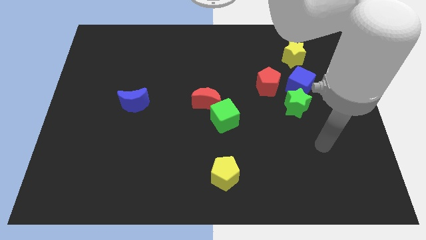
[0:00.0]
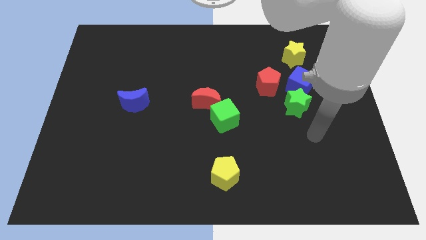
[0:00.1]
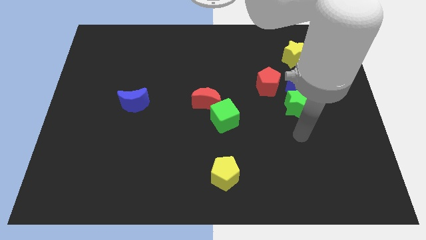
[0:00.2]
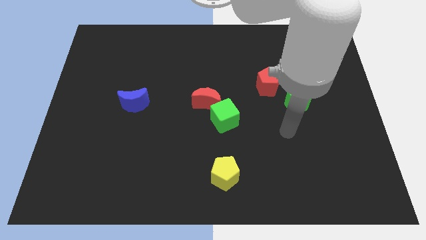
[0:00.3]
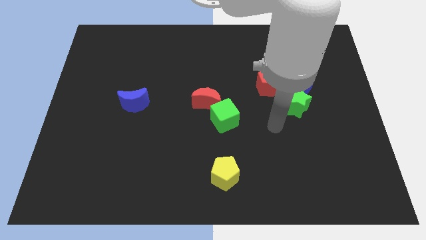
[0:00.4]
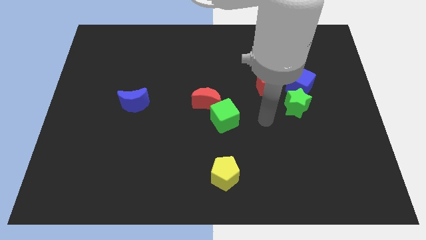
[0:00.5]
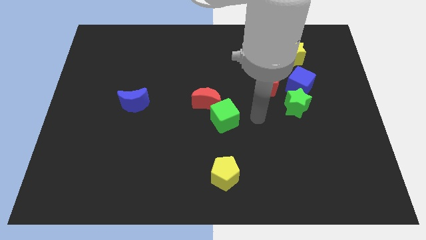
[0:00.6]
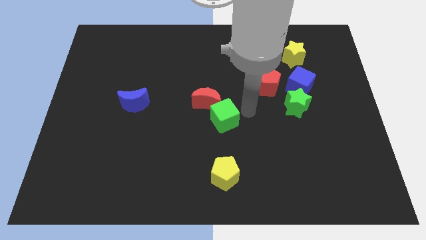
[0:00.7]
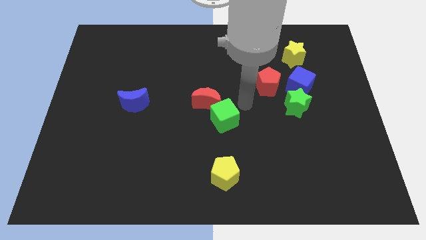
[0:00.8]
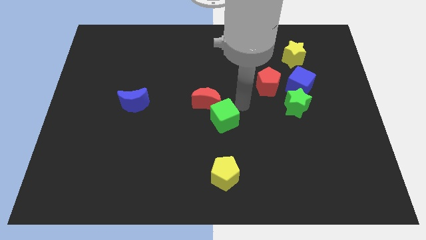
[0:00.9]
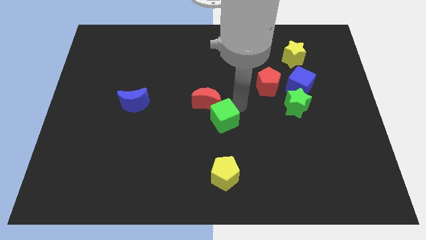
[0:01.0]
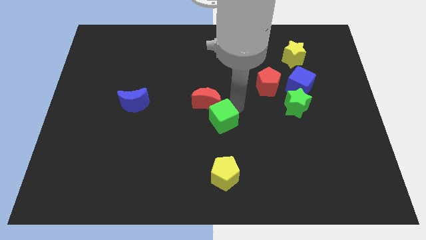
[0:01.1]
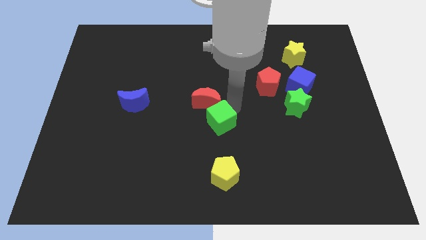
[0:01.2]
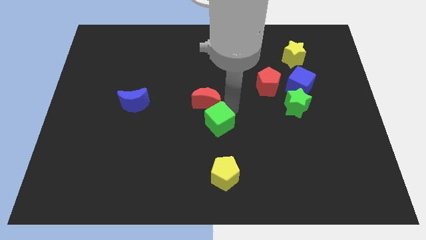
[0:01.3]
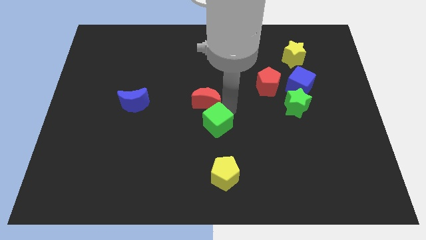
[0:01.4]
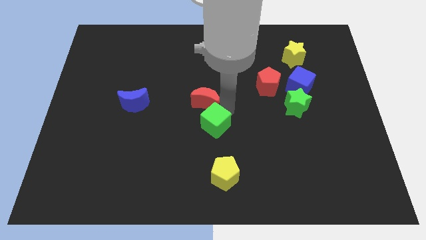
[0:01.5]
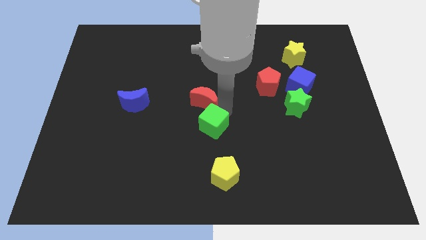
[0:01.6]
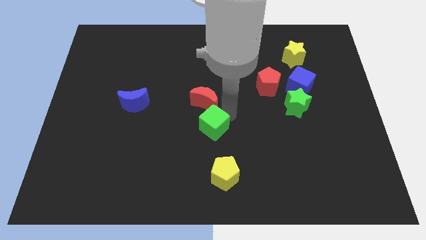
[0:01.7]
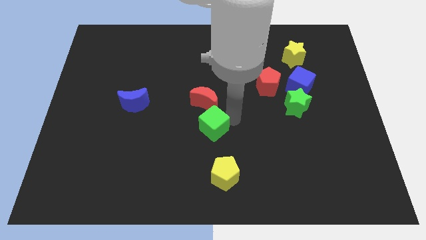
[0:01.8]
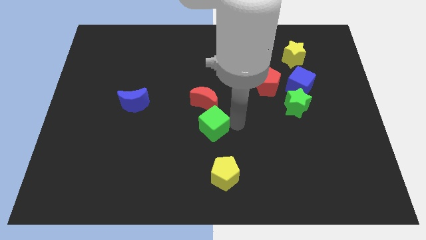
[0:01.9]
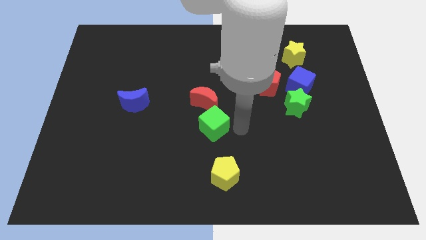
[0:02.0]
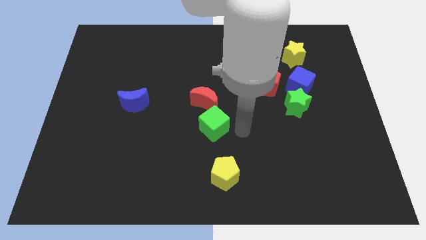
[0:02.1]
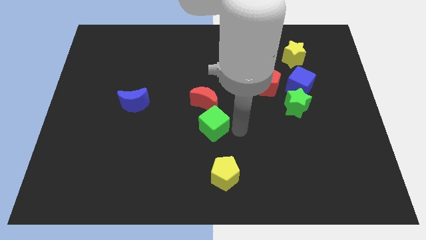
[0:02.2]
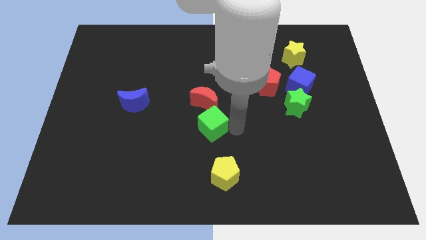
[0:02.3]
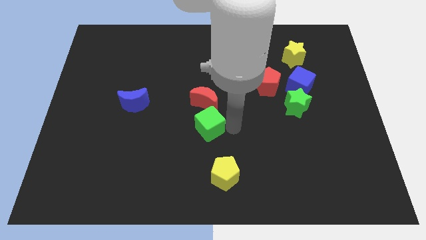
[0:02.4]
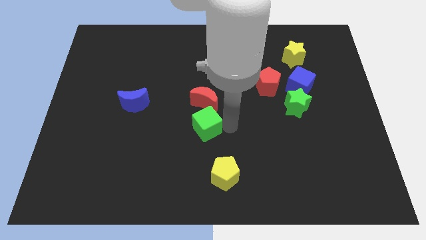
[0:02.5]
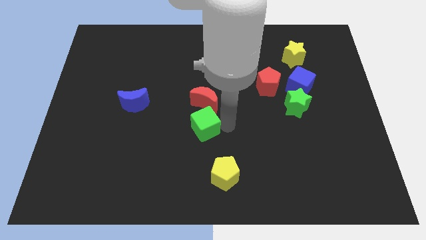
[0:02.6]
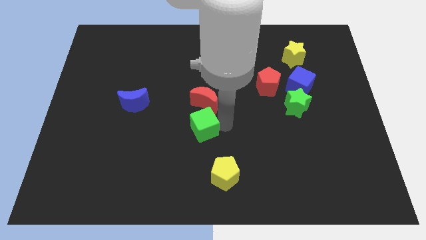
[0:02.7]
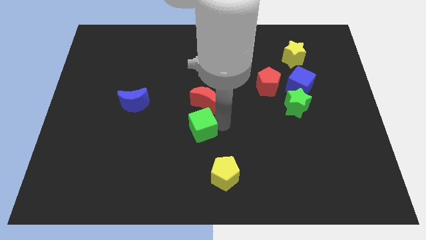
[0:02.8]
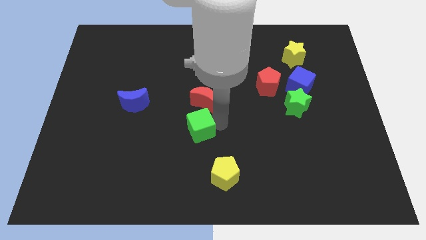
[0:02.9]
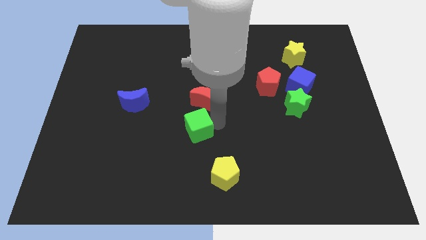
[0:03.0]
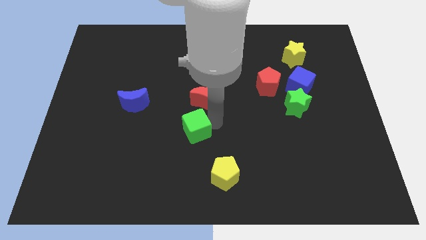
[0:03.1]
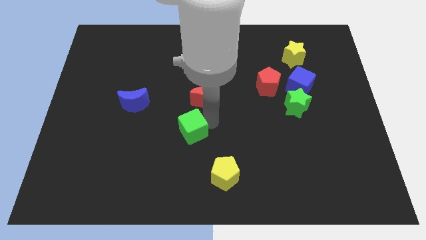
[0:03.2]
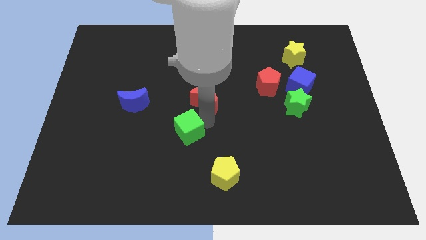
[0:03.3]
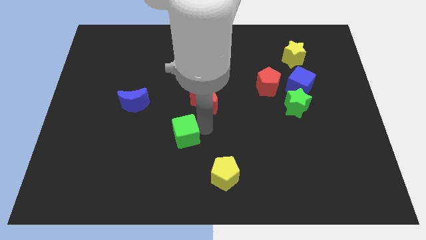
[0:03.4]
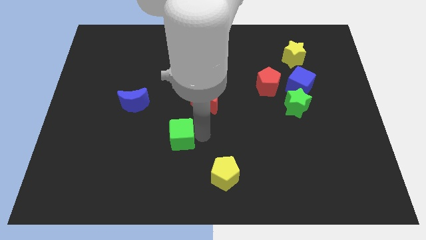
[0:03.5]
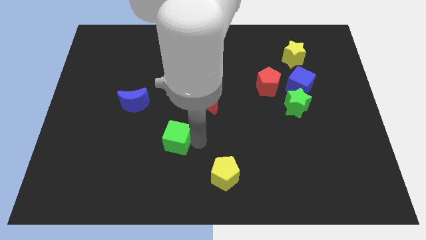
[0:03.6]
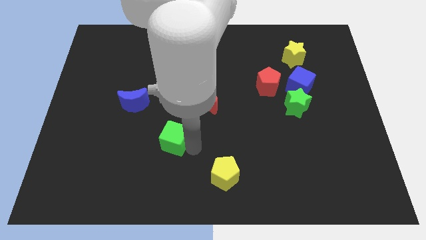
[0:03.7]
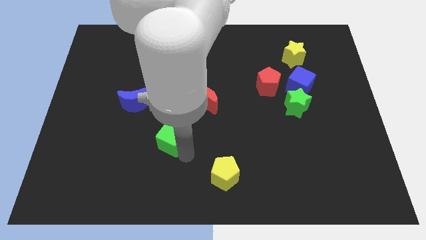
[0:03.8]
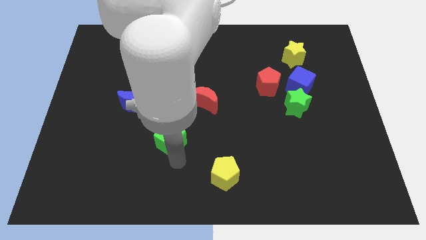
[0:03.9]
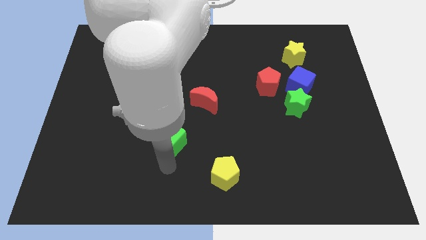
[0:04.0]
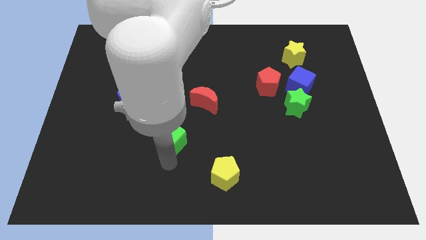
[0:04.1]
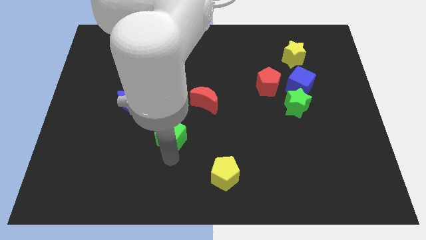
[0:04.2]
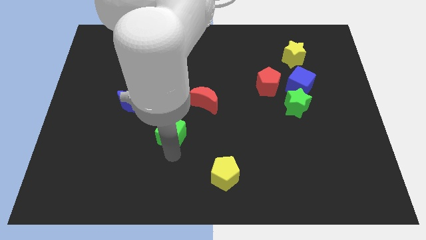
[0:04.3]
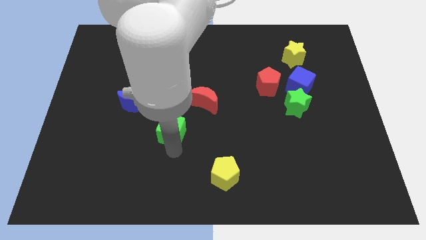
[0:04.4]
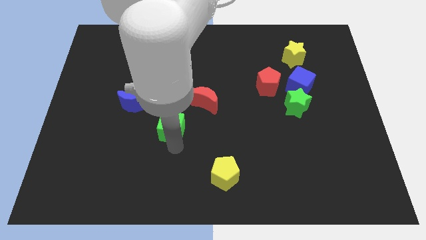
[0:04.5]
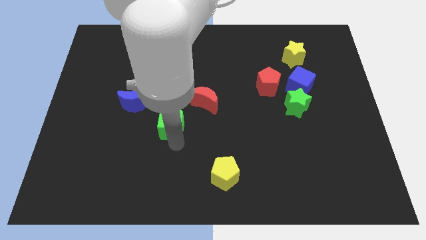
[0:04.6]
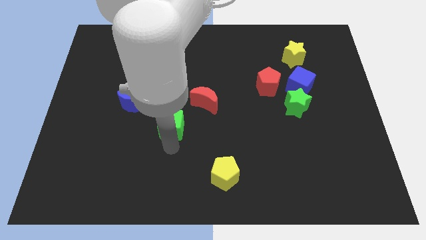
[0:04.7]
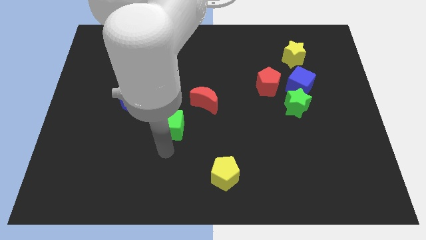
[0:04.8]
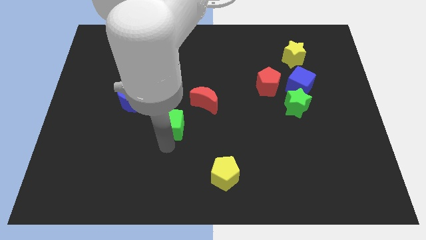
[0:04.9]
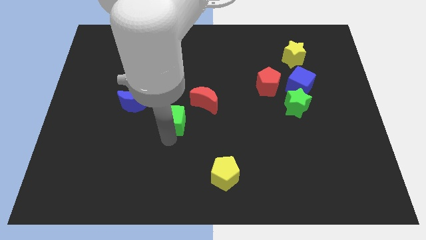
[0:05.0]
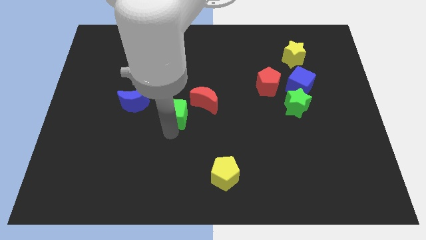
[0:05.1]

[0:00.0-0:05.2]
move the green cube right of the blue moon

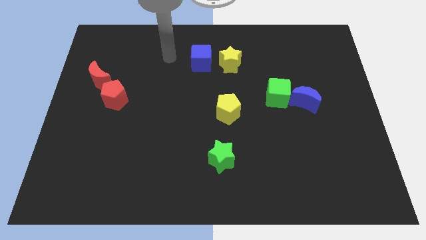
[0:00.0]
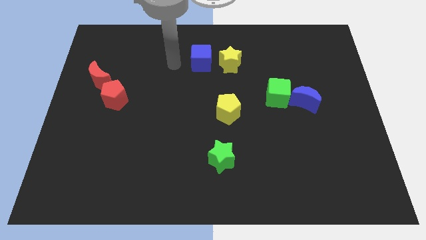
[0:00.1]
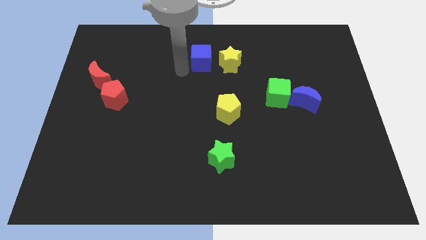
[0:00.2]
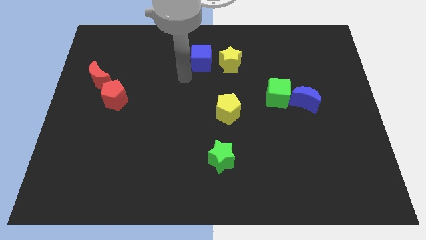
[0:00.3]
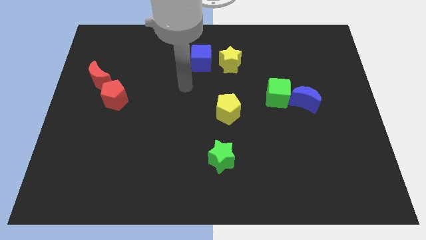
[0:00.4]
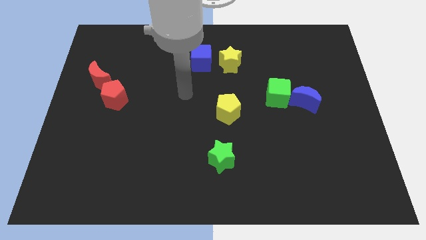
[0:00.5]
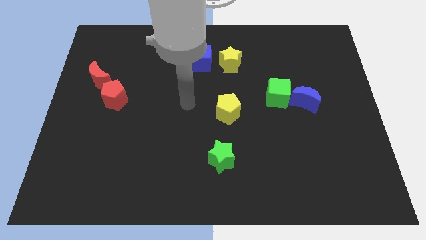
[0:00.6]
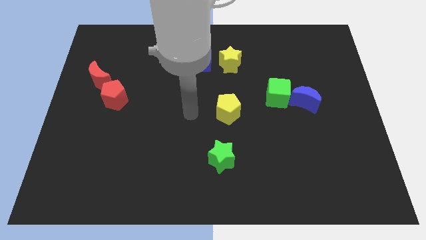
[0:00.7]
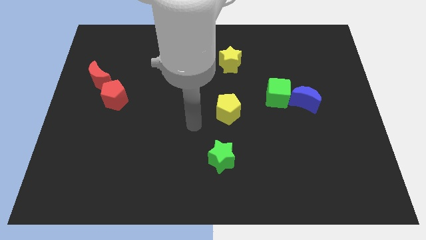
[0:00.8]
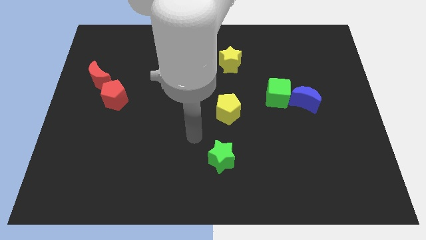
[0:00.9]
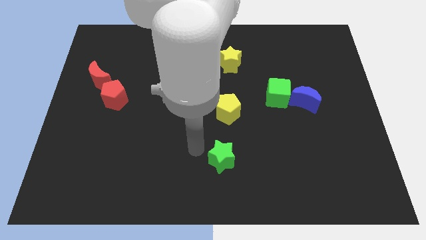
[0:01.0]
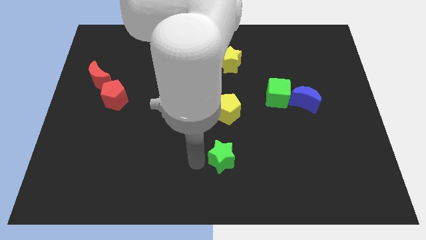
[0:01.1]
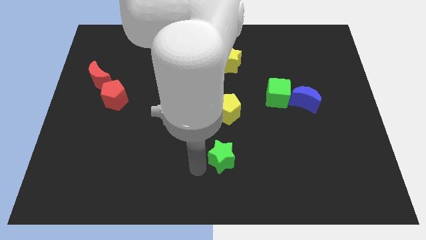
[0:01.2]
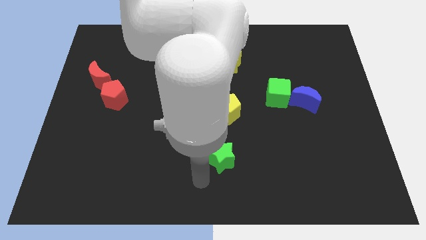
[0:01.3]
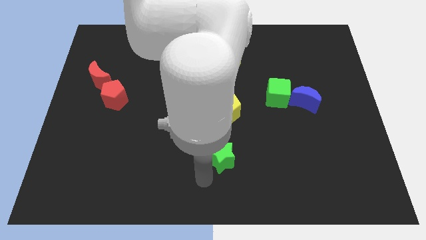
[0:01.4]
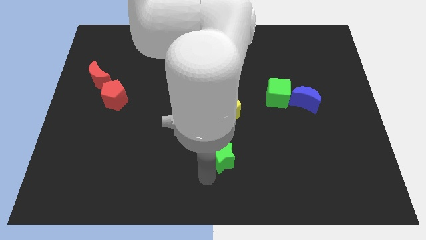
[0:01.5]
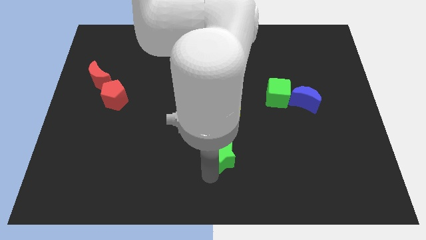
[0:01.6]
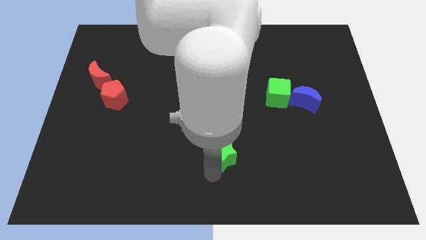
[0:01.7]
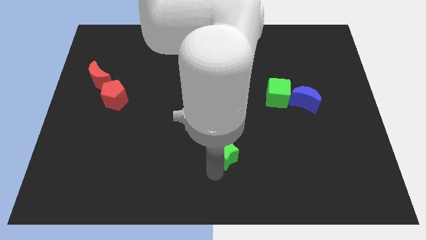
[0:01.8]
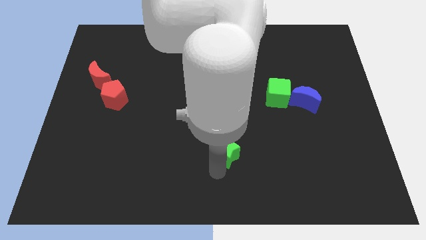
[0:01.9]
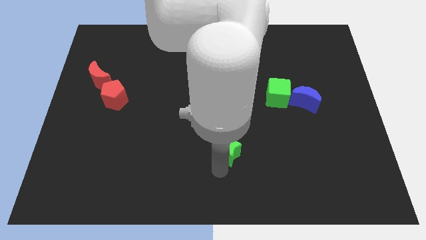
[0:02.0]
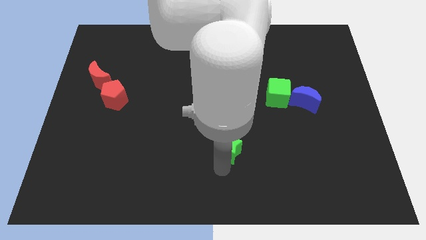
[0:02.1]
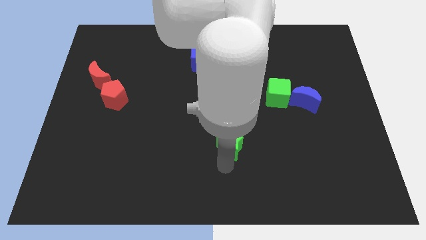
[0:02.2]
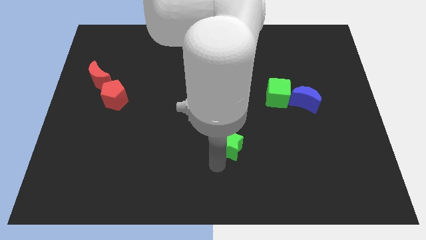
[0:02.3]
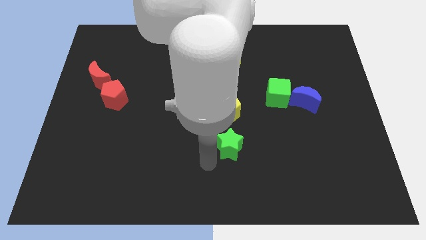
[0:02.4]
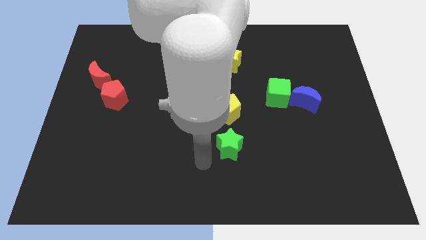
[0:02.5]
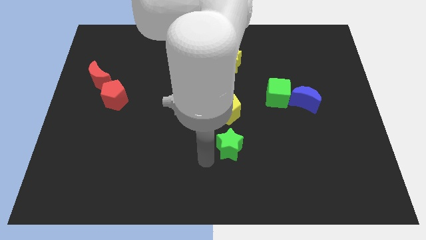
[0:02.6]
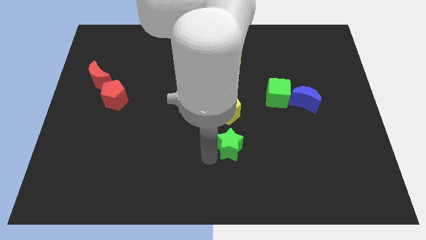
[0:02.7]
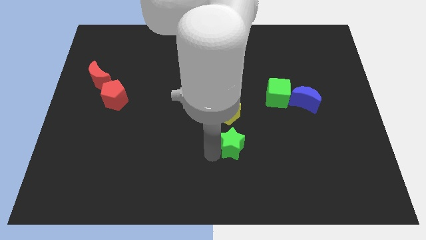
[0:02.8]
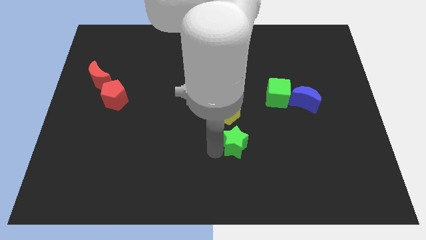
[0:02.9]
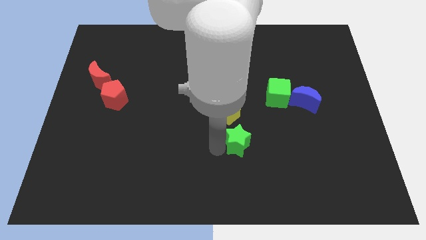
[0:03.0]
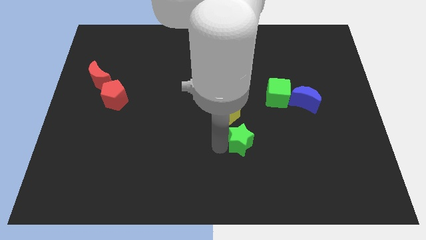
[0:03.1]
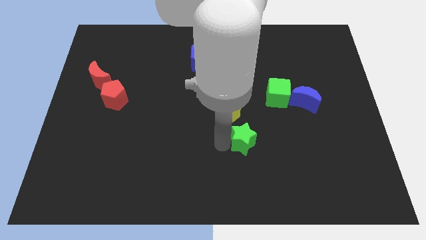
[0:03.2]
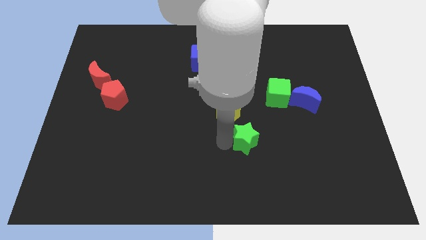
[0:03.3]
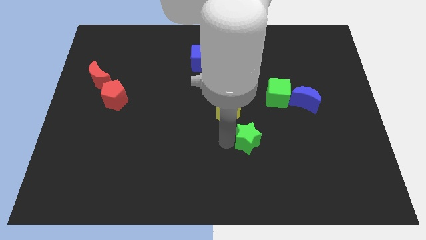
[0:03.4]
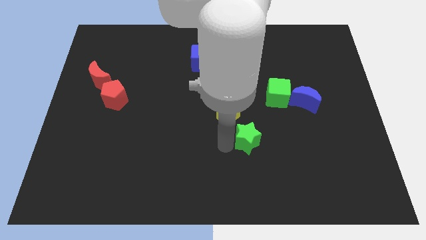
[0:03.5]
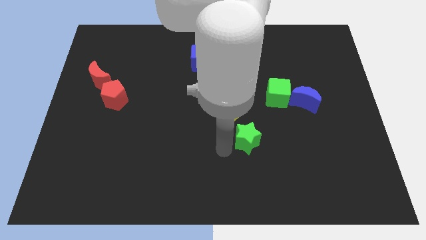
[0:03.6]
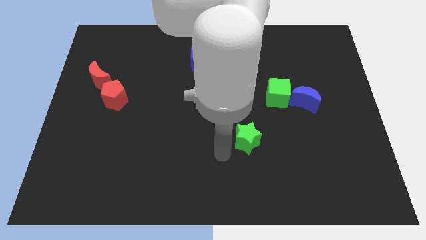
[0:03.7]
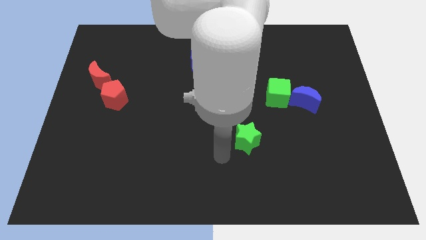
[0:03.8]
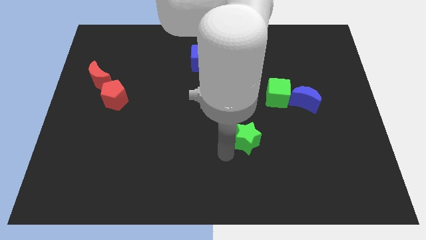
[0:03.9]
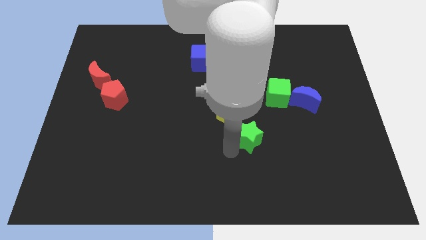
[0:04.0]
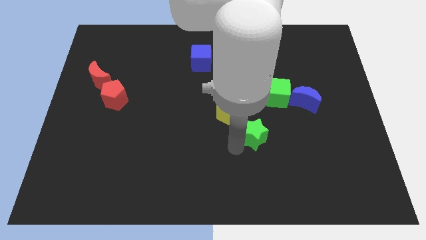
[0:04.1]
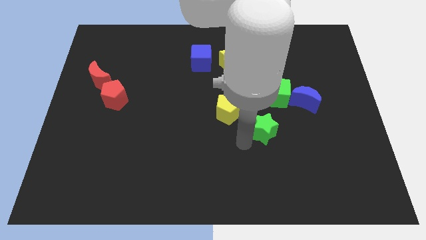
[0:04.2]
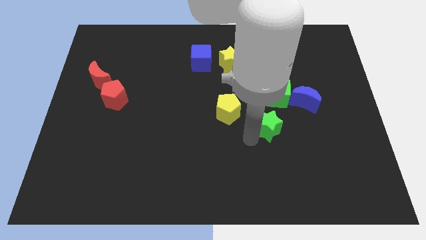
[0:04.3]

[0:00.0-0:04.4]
slide the green star to the bottom left of the blue moon
